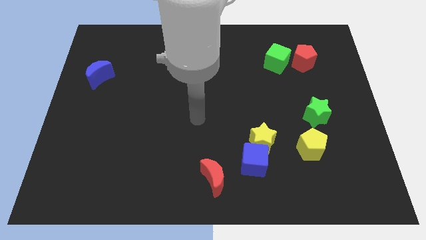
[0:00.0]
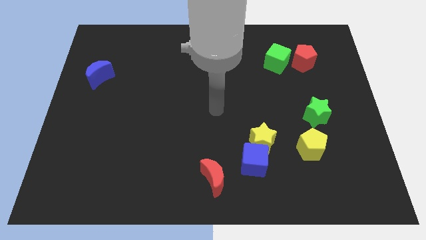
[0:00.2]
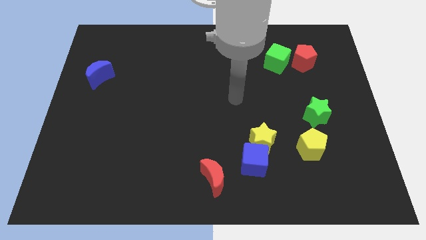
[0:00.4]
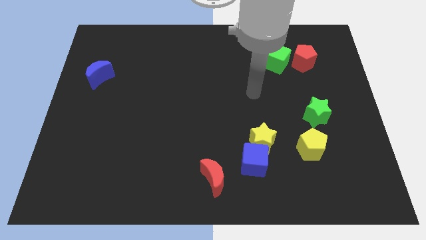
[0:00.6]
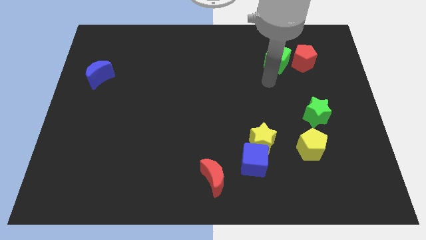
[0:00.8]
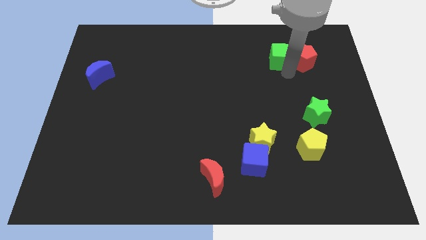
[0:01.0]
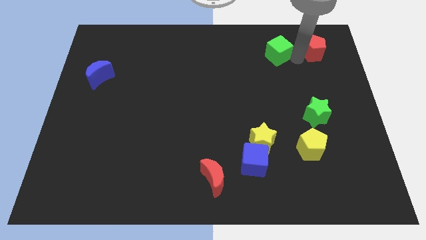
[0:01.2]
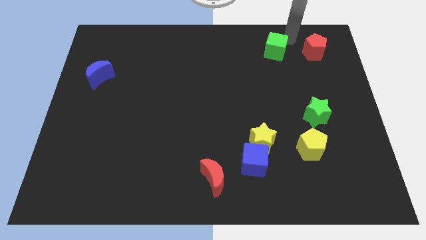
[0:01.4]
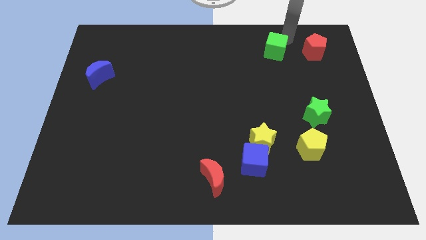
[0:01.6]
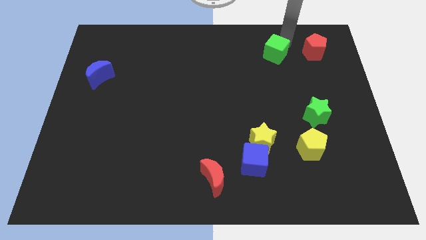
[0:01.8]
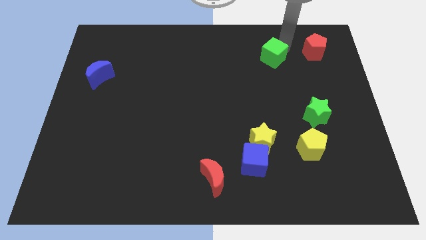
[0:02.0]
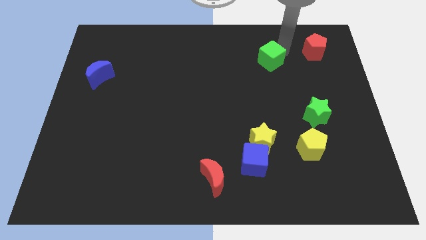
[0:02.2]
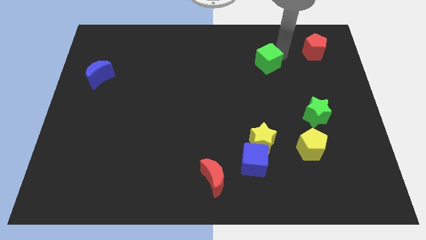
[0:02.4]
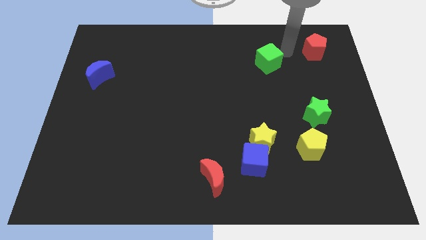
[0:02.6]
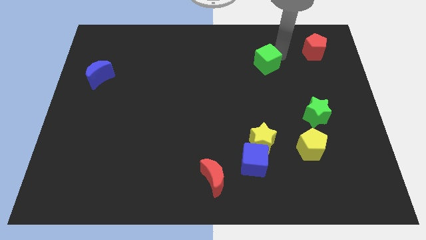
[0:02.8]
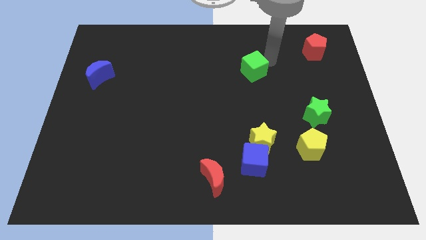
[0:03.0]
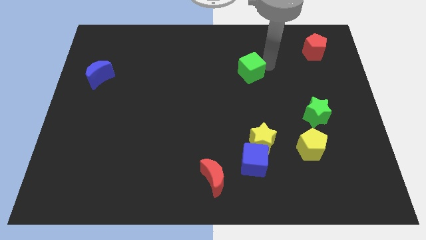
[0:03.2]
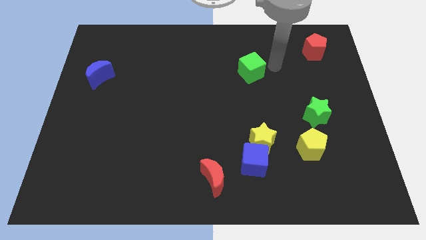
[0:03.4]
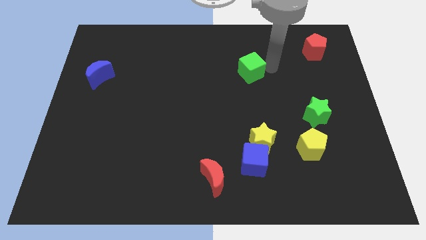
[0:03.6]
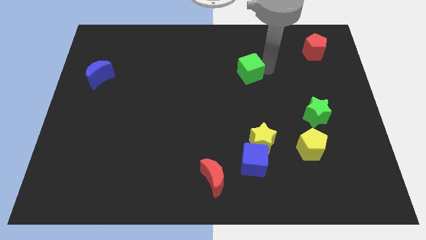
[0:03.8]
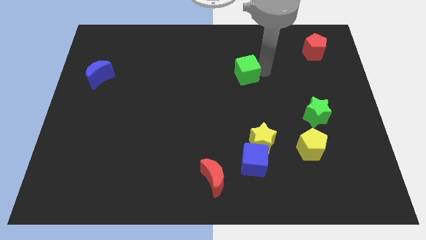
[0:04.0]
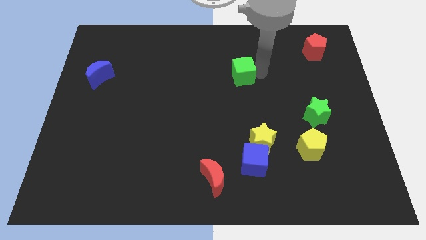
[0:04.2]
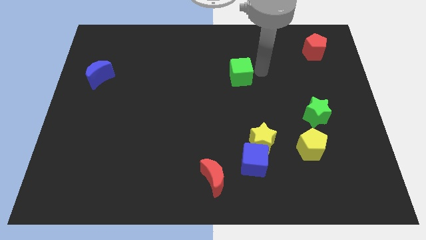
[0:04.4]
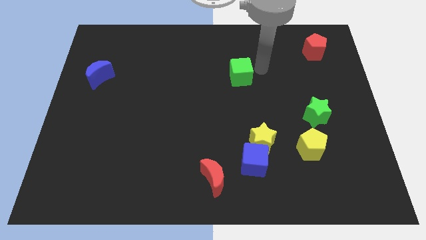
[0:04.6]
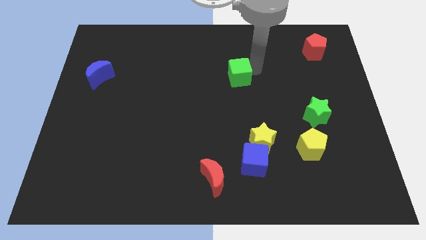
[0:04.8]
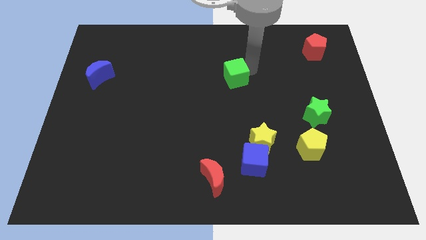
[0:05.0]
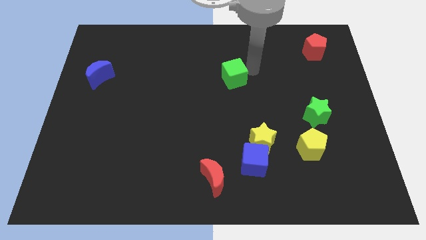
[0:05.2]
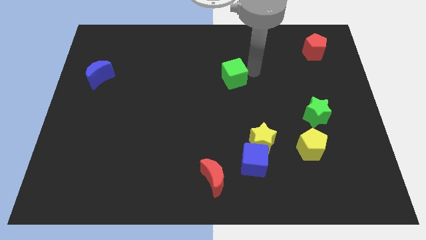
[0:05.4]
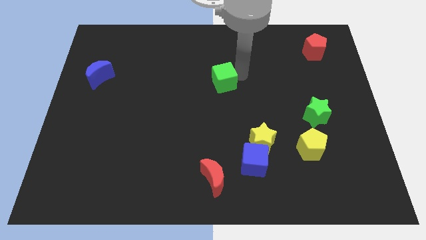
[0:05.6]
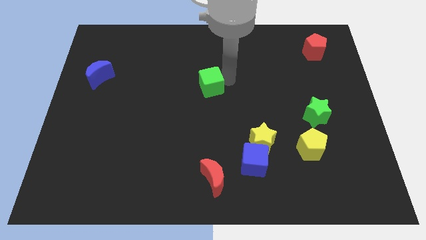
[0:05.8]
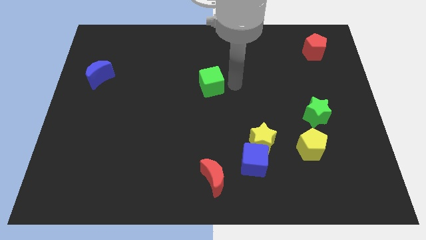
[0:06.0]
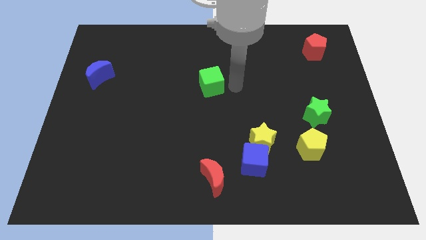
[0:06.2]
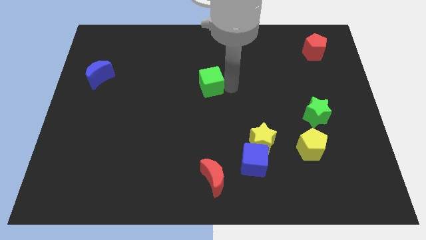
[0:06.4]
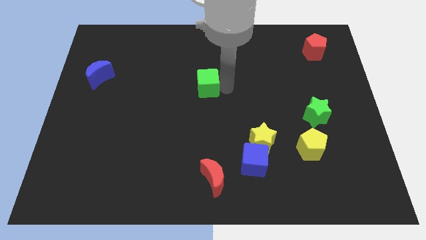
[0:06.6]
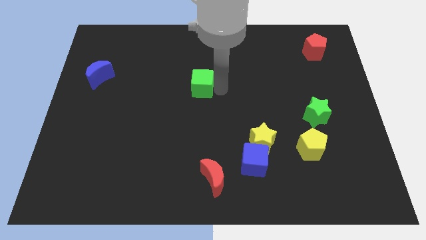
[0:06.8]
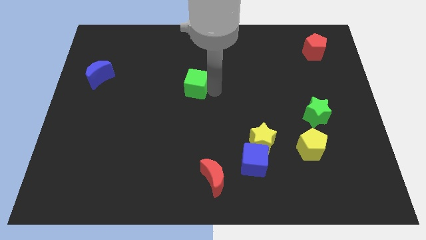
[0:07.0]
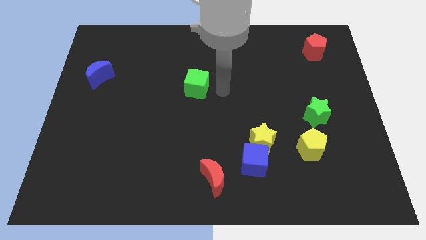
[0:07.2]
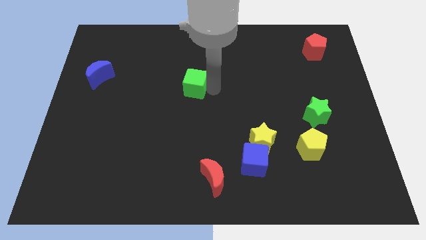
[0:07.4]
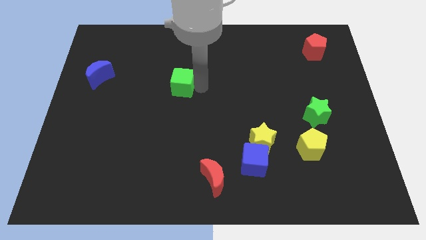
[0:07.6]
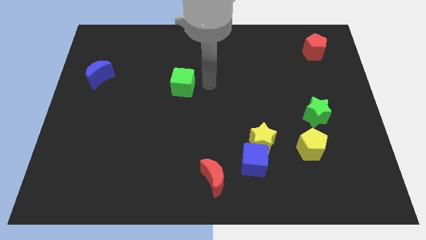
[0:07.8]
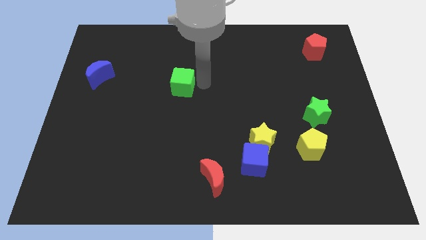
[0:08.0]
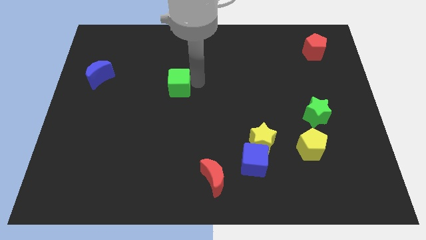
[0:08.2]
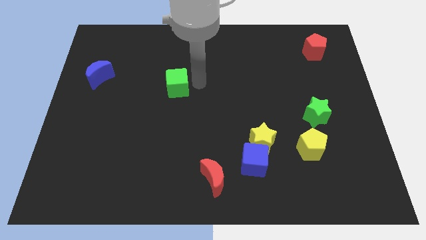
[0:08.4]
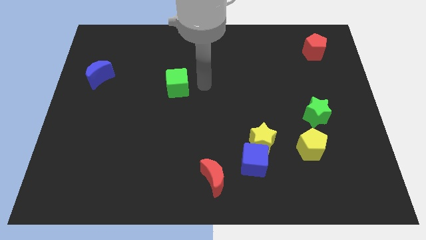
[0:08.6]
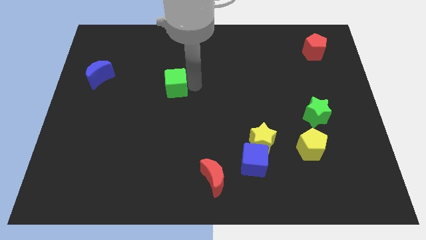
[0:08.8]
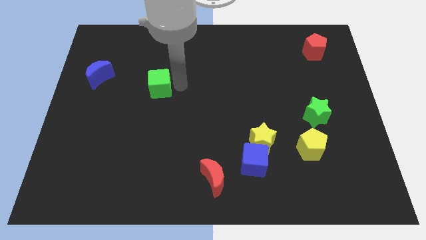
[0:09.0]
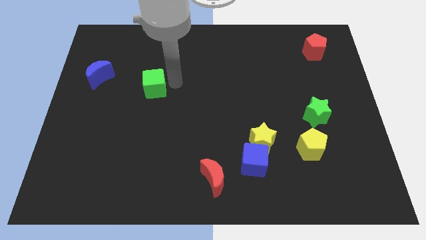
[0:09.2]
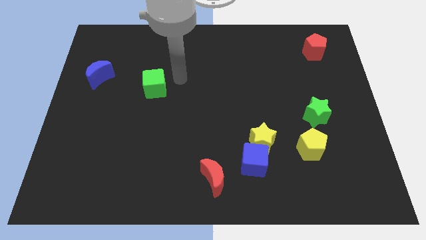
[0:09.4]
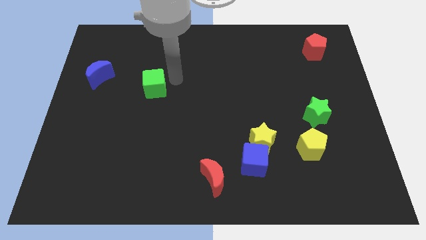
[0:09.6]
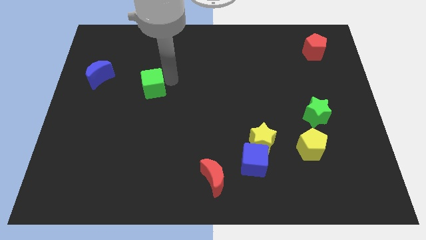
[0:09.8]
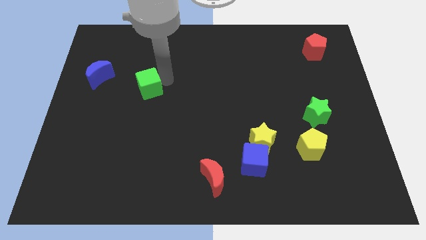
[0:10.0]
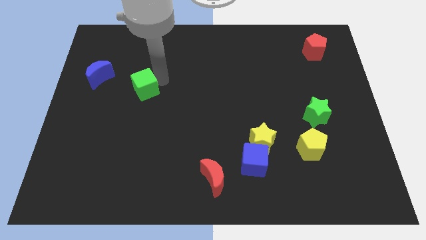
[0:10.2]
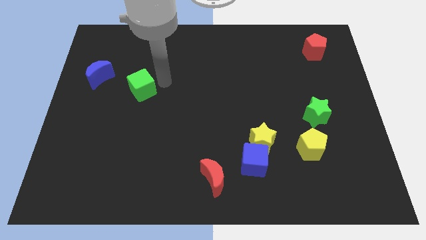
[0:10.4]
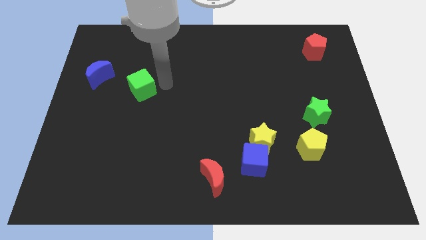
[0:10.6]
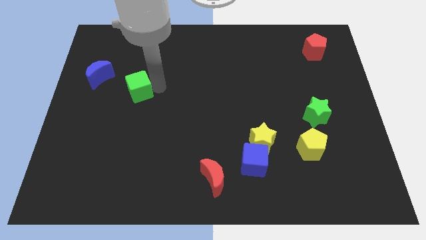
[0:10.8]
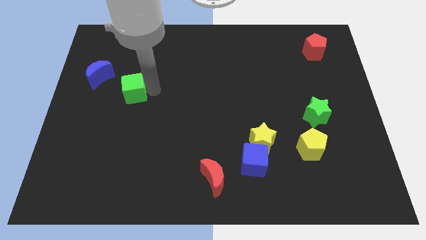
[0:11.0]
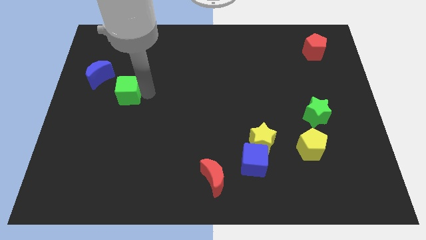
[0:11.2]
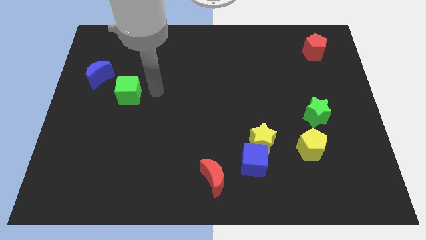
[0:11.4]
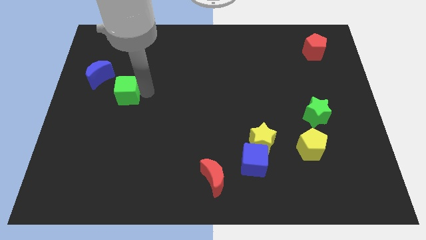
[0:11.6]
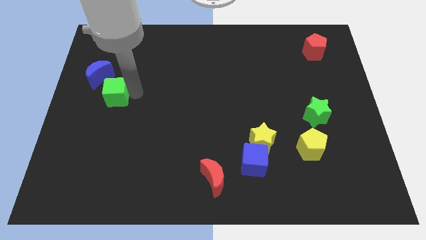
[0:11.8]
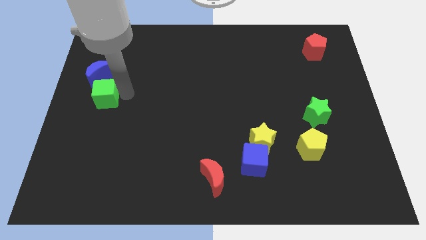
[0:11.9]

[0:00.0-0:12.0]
slide the green cube to the left side of the board
